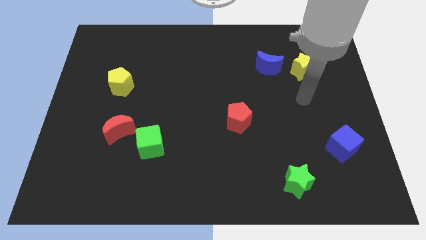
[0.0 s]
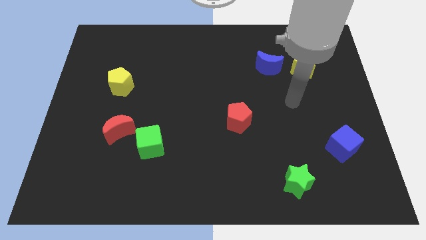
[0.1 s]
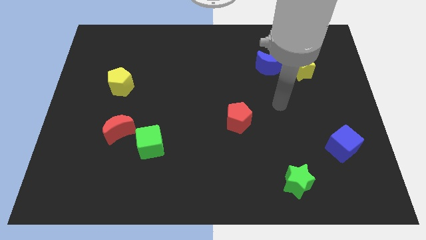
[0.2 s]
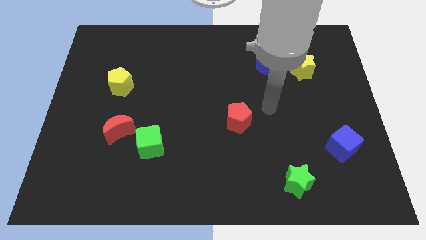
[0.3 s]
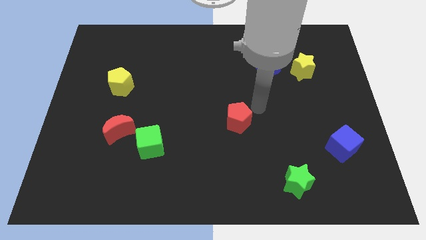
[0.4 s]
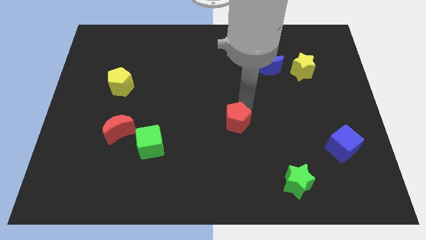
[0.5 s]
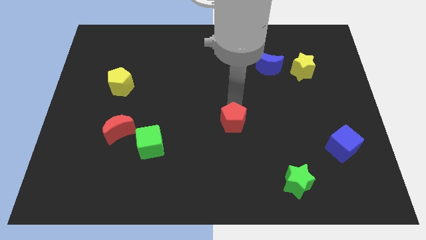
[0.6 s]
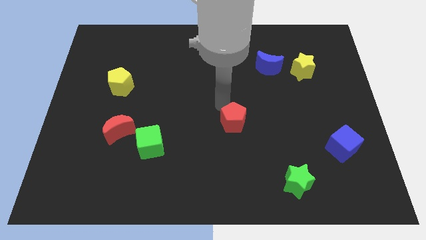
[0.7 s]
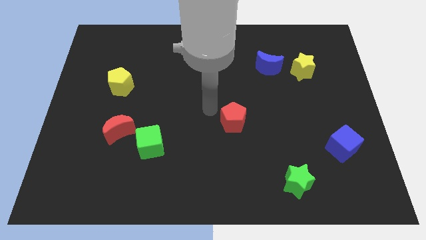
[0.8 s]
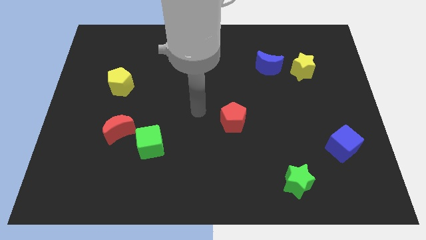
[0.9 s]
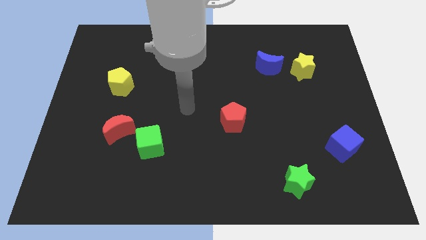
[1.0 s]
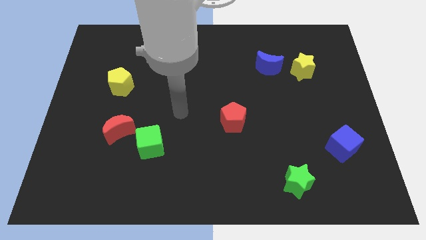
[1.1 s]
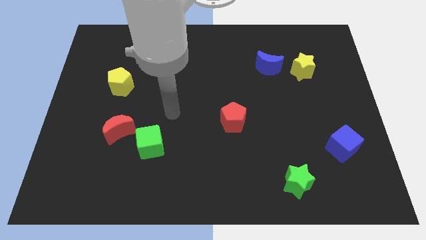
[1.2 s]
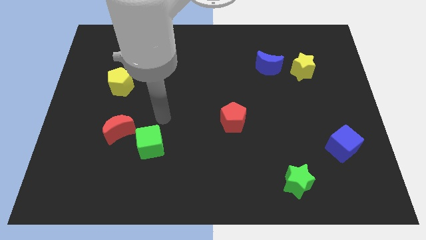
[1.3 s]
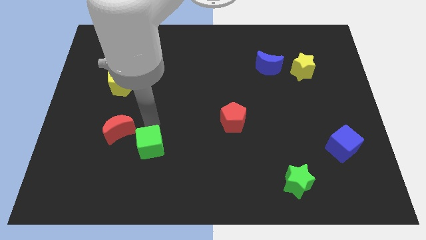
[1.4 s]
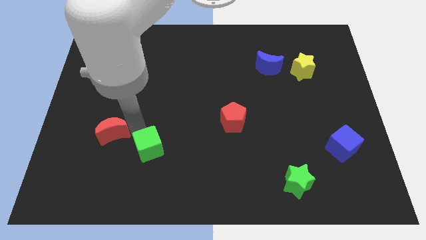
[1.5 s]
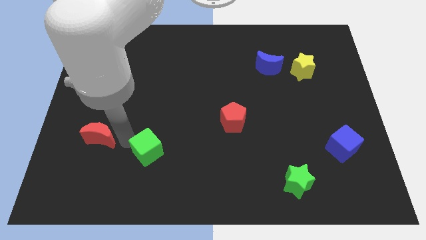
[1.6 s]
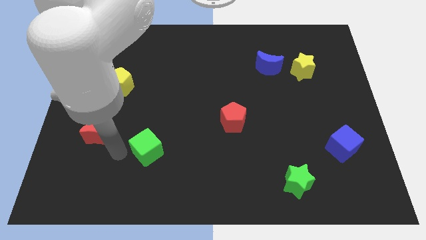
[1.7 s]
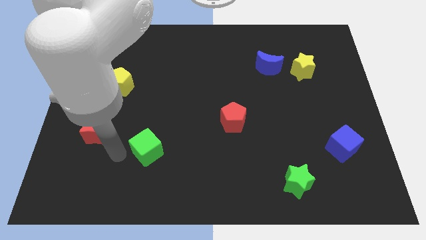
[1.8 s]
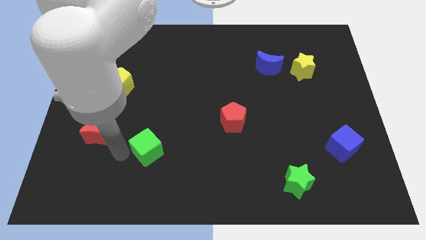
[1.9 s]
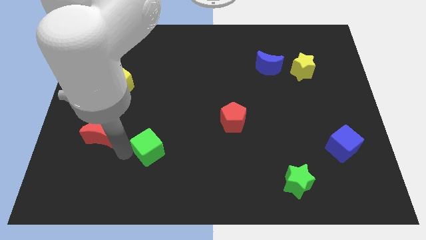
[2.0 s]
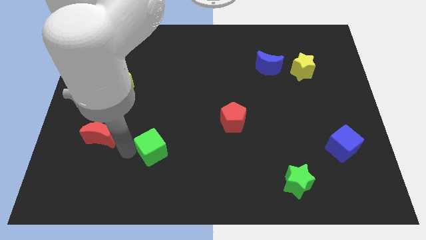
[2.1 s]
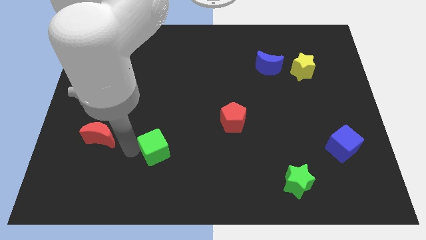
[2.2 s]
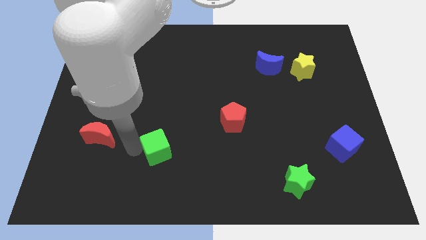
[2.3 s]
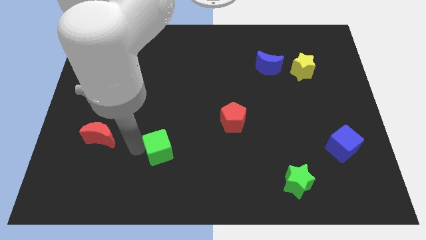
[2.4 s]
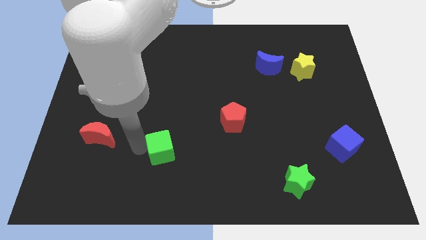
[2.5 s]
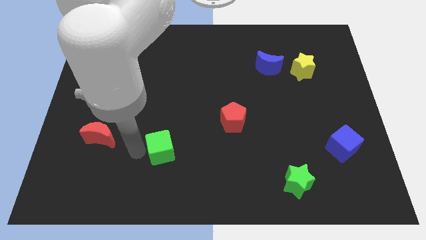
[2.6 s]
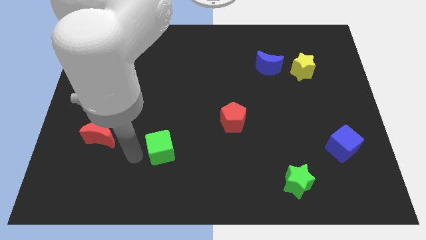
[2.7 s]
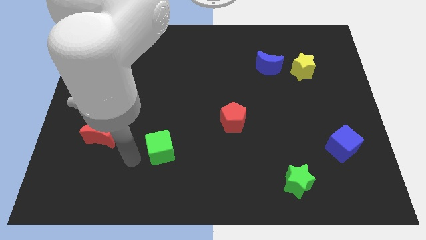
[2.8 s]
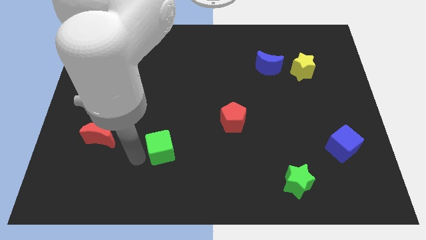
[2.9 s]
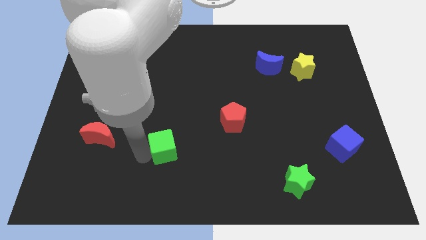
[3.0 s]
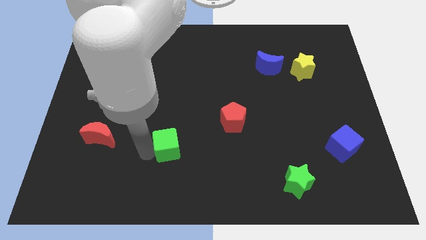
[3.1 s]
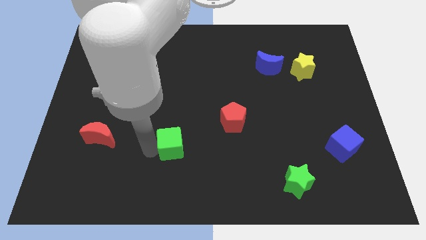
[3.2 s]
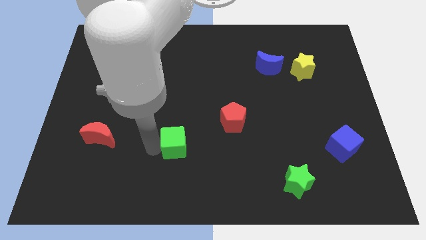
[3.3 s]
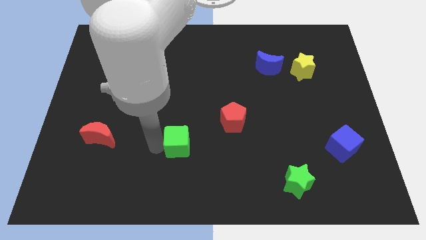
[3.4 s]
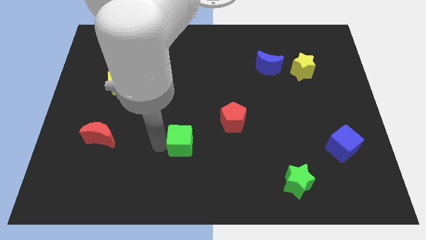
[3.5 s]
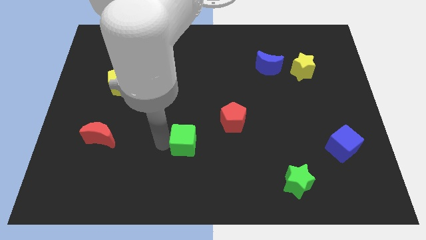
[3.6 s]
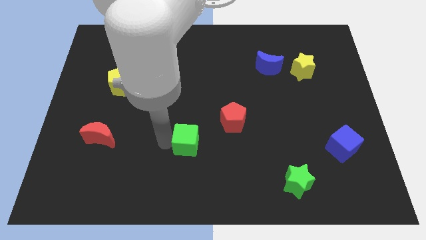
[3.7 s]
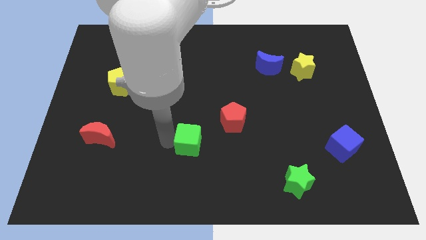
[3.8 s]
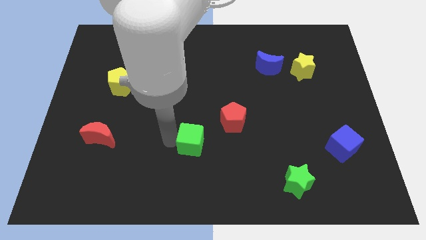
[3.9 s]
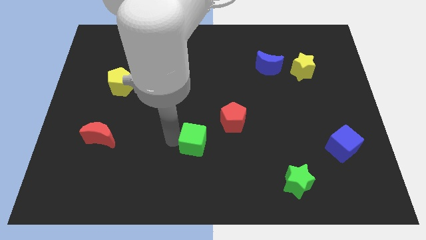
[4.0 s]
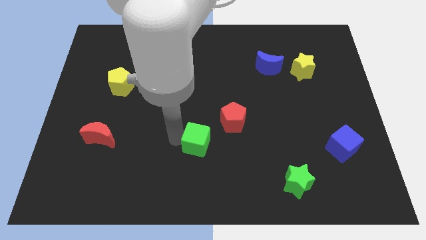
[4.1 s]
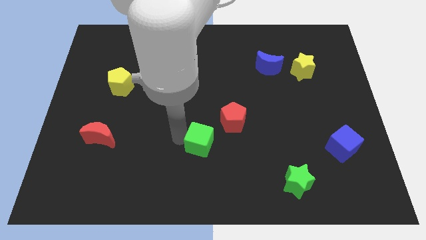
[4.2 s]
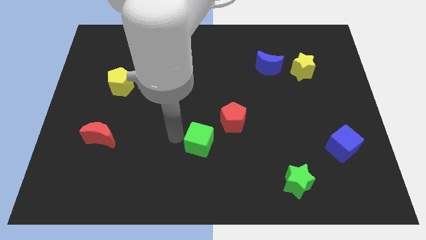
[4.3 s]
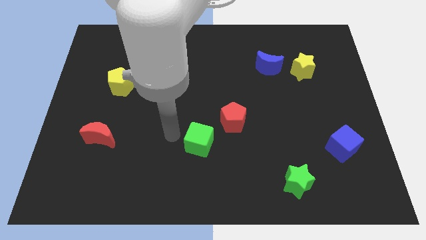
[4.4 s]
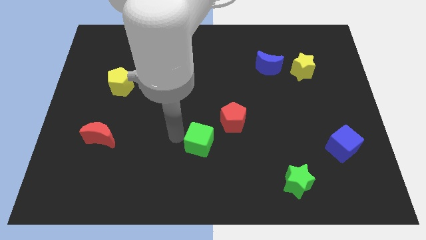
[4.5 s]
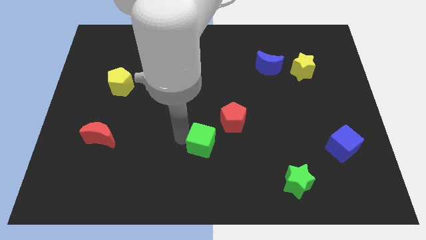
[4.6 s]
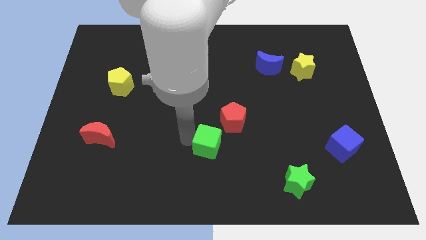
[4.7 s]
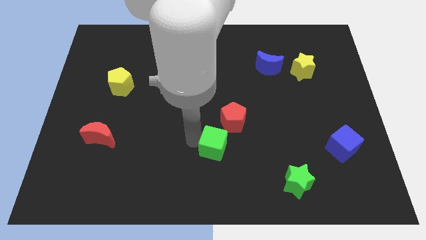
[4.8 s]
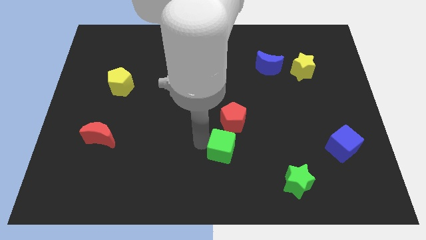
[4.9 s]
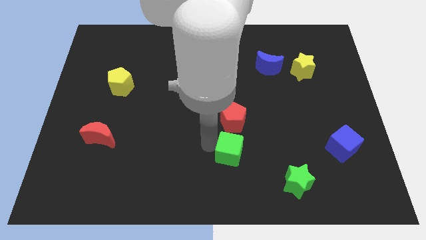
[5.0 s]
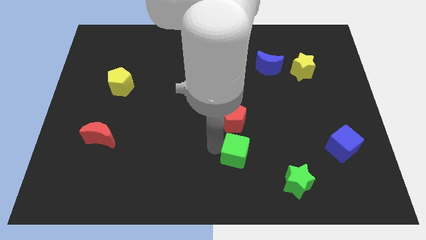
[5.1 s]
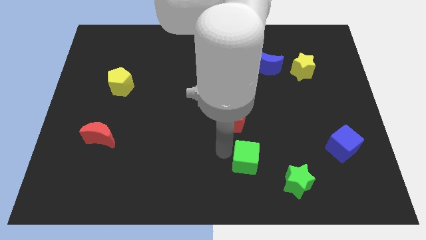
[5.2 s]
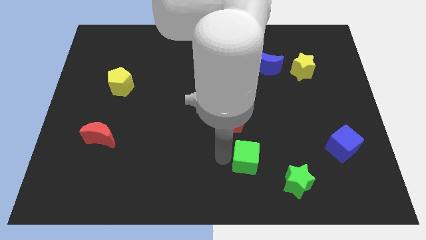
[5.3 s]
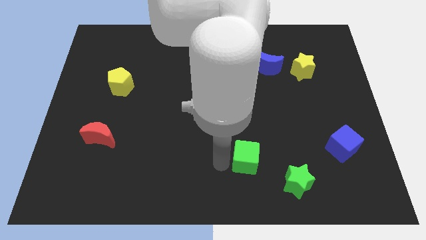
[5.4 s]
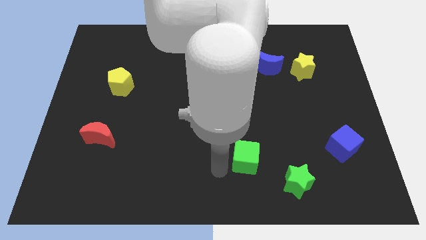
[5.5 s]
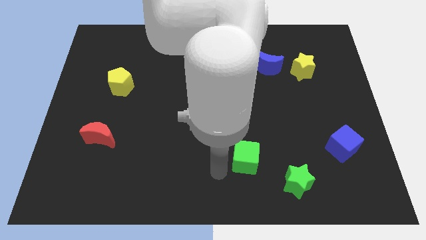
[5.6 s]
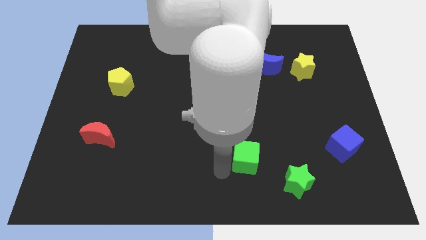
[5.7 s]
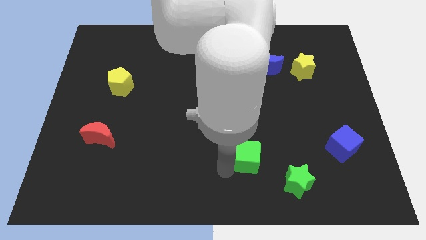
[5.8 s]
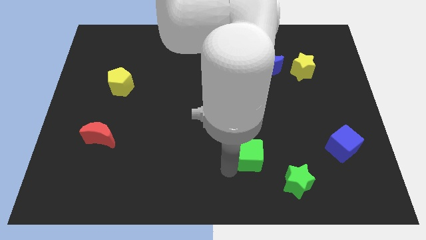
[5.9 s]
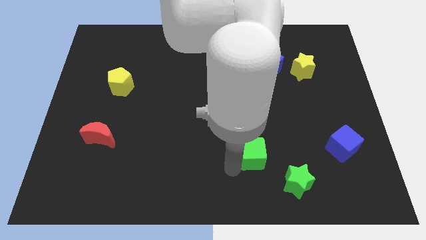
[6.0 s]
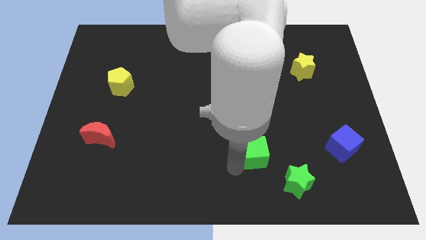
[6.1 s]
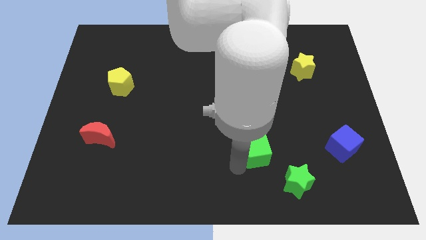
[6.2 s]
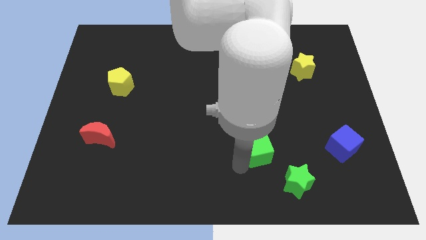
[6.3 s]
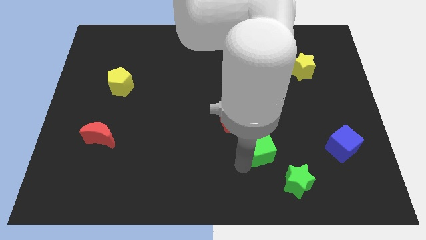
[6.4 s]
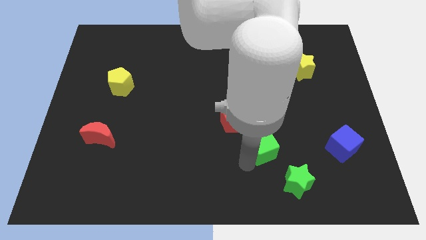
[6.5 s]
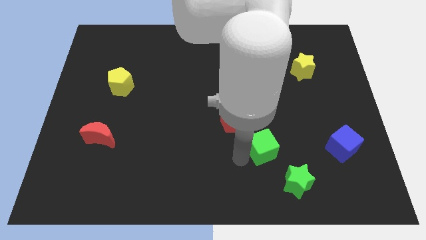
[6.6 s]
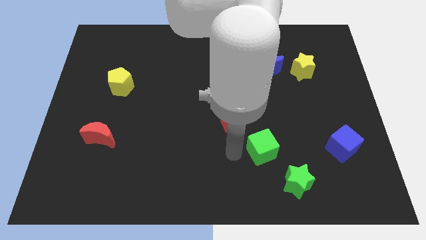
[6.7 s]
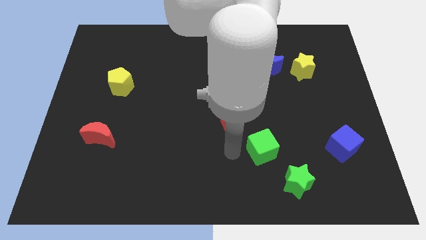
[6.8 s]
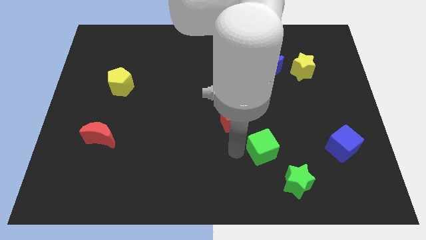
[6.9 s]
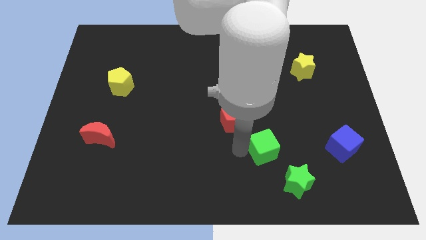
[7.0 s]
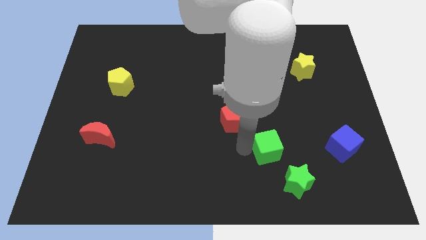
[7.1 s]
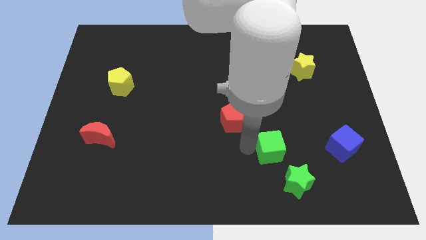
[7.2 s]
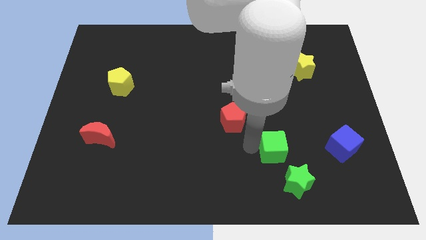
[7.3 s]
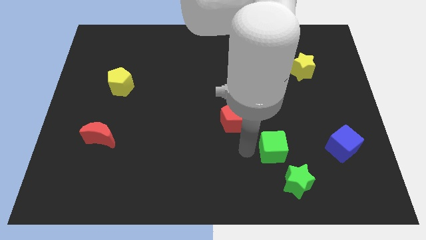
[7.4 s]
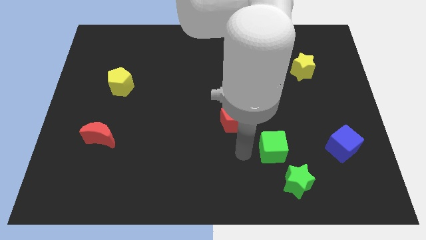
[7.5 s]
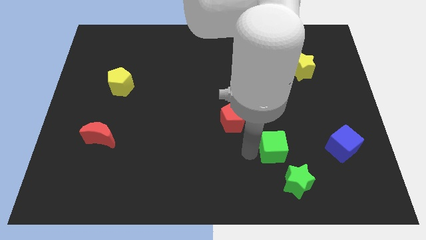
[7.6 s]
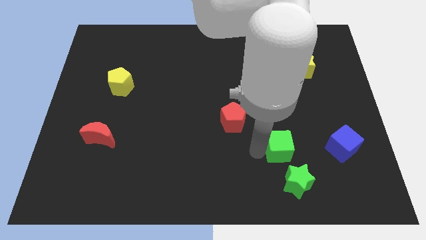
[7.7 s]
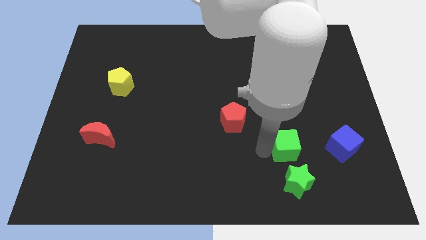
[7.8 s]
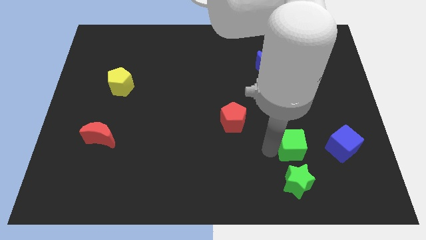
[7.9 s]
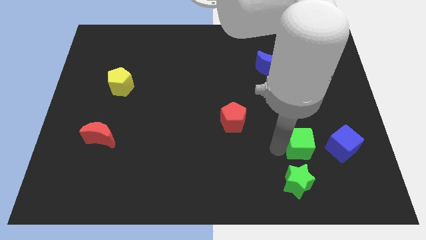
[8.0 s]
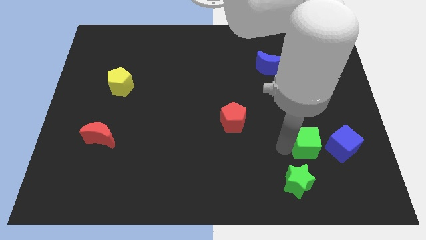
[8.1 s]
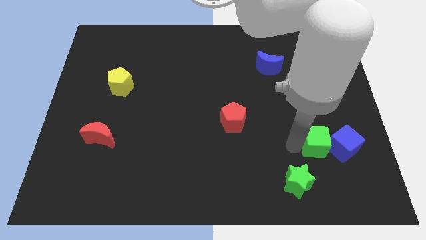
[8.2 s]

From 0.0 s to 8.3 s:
move the green cube to the blue cube

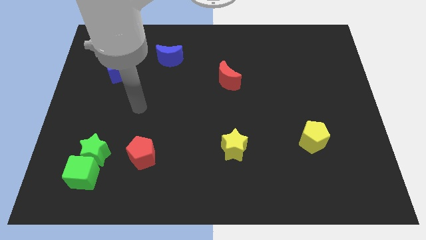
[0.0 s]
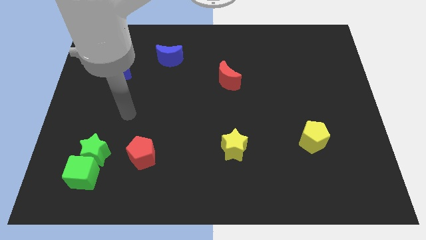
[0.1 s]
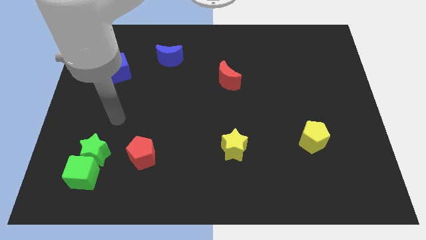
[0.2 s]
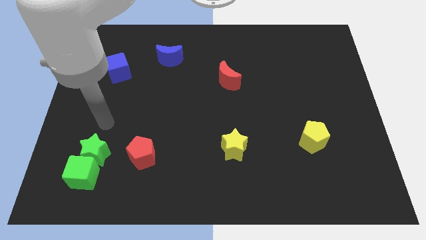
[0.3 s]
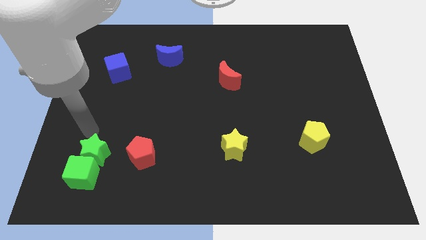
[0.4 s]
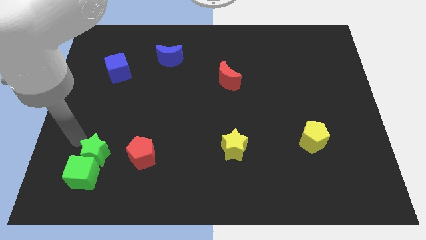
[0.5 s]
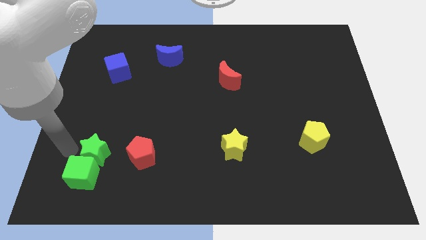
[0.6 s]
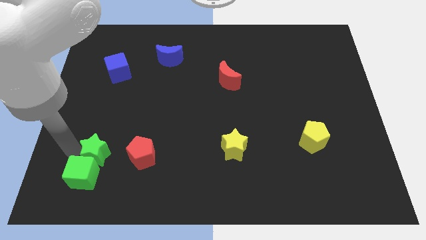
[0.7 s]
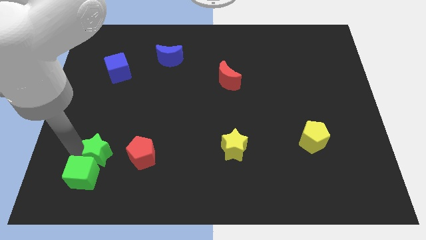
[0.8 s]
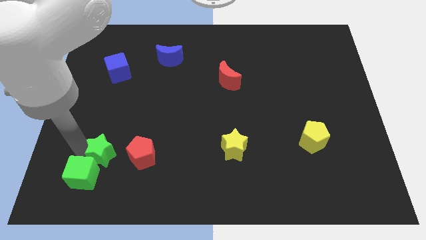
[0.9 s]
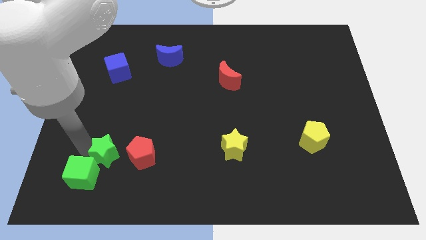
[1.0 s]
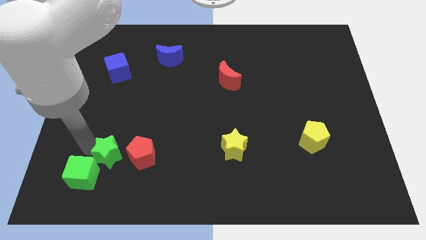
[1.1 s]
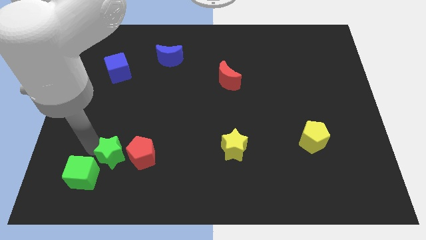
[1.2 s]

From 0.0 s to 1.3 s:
move the green star towards the red pentagon
